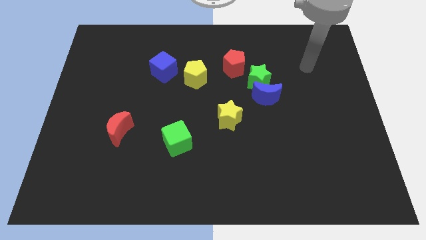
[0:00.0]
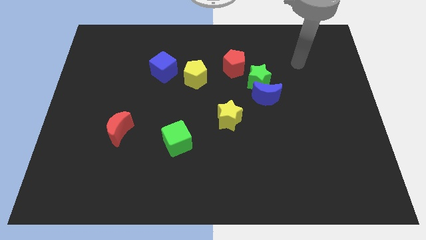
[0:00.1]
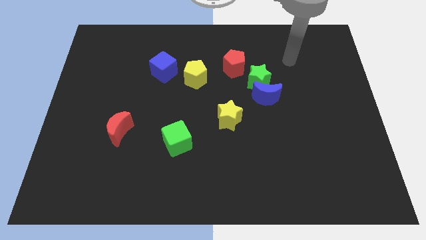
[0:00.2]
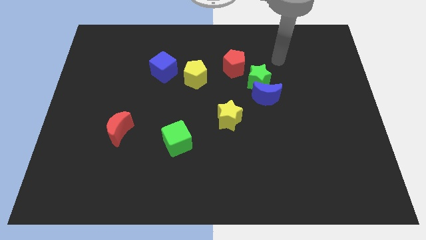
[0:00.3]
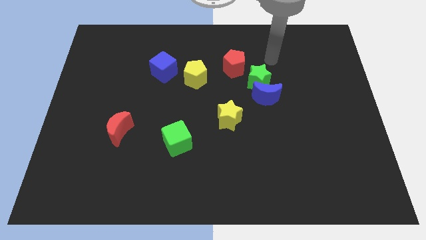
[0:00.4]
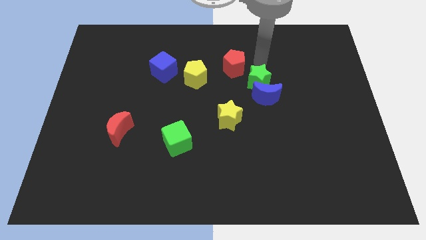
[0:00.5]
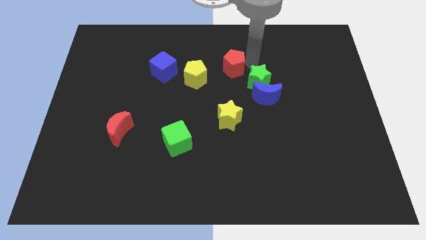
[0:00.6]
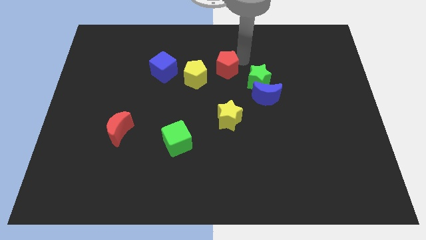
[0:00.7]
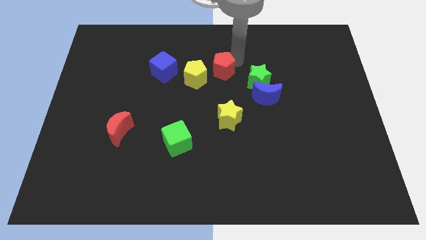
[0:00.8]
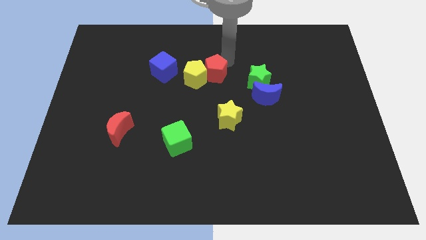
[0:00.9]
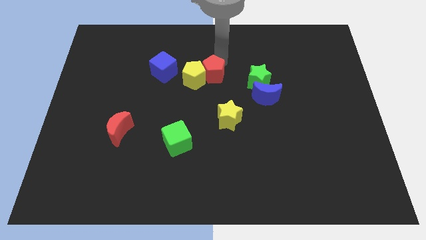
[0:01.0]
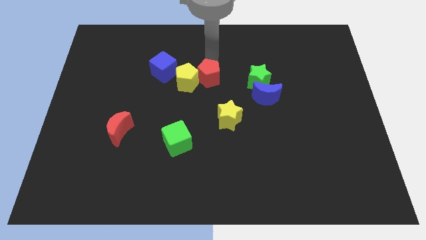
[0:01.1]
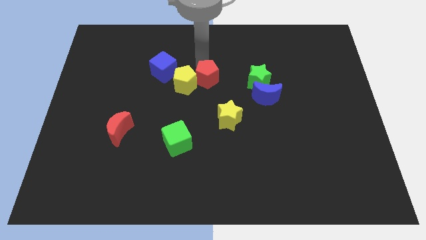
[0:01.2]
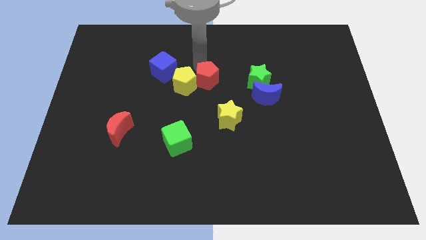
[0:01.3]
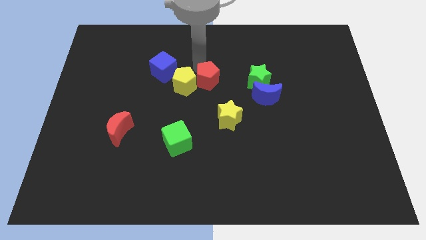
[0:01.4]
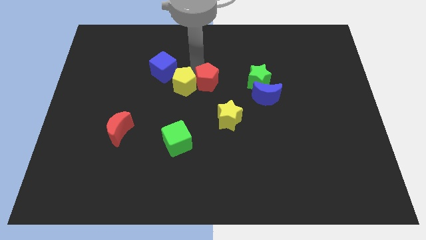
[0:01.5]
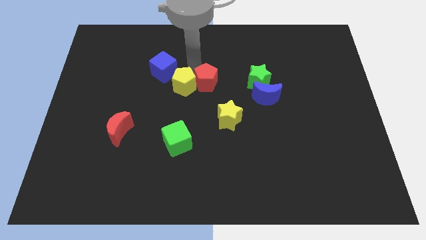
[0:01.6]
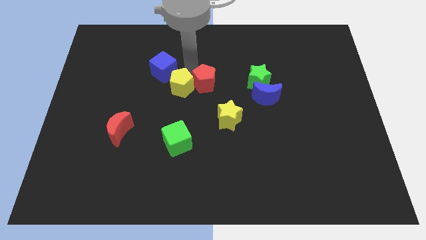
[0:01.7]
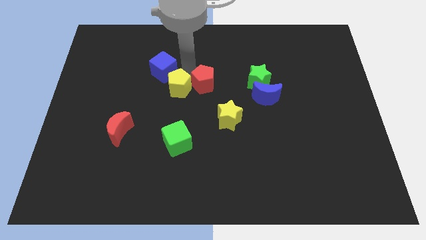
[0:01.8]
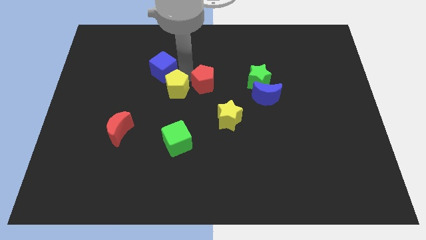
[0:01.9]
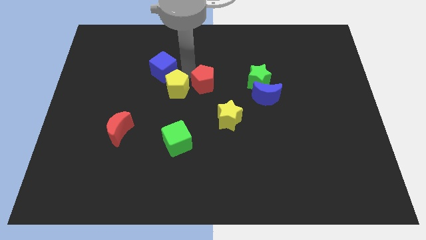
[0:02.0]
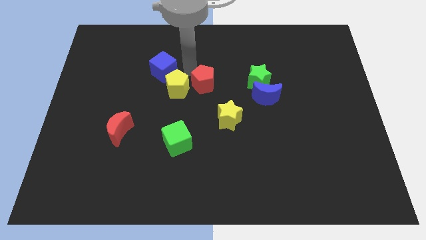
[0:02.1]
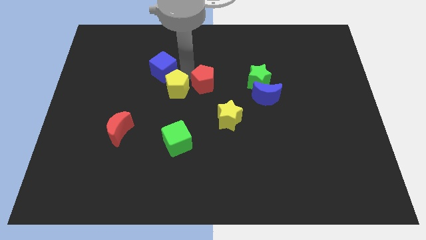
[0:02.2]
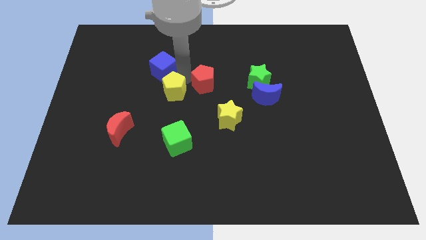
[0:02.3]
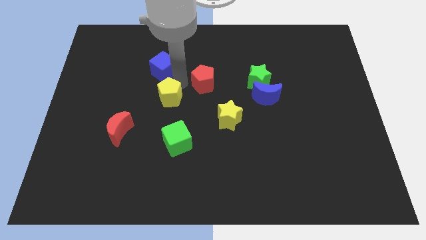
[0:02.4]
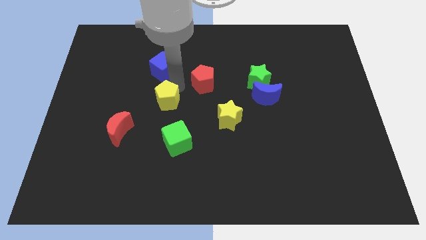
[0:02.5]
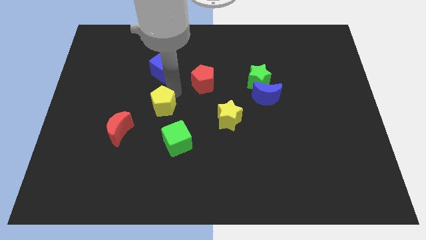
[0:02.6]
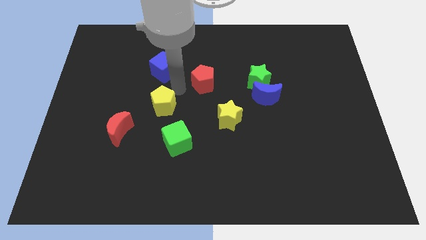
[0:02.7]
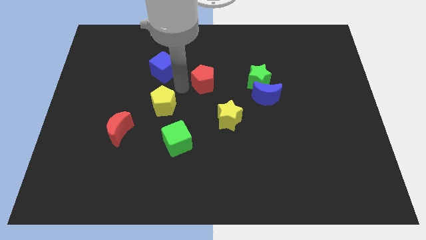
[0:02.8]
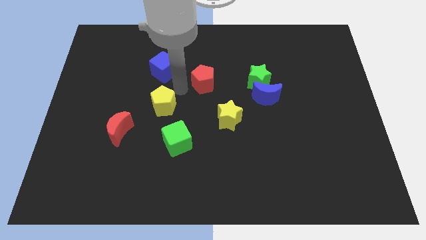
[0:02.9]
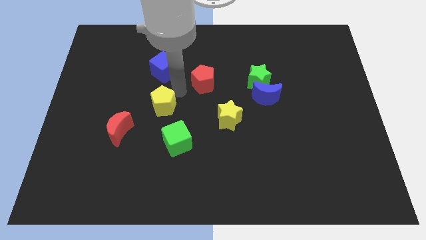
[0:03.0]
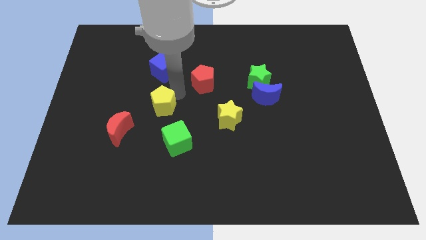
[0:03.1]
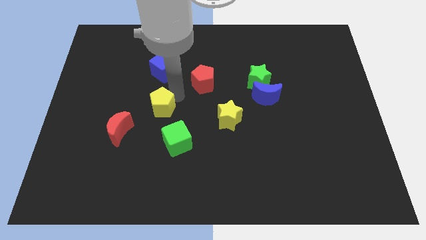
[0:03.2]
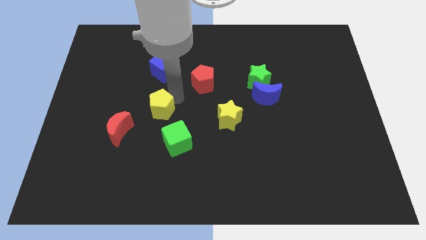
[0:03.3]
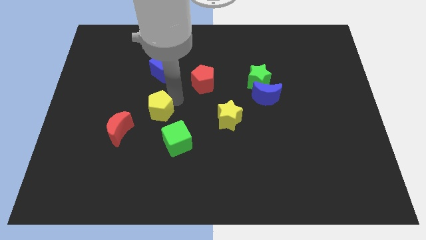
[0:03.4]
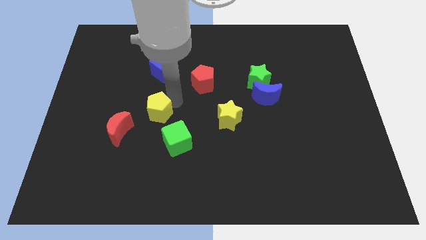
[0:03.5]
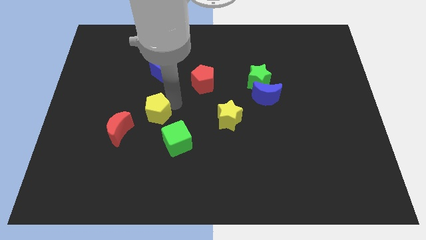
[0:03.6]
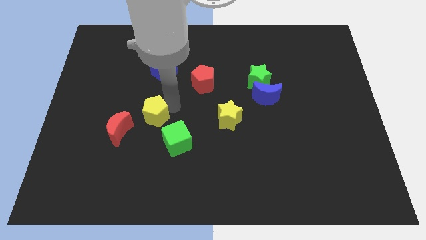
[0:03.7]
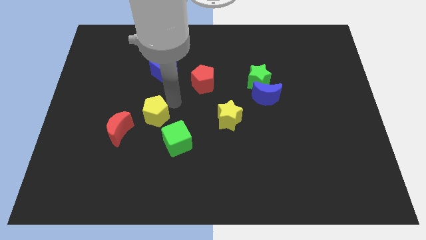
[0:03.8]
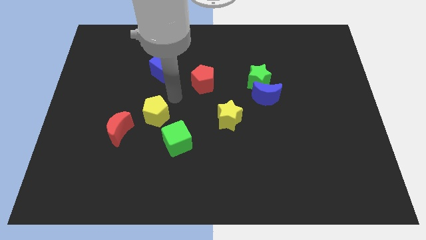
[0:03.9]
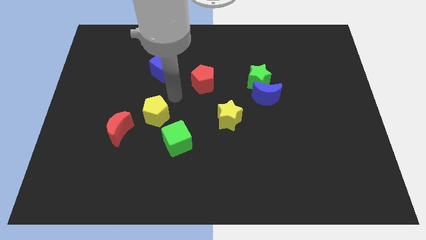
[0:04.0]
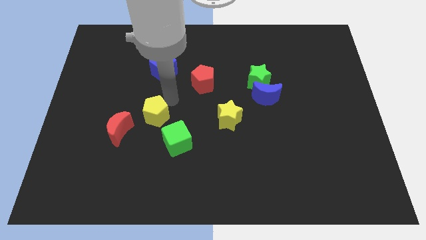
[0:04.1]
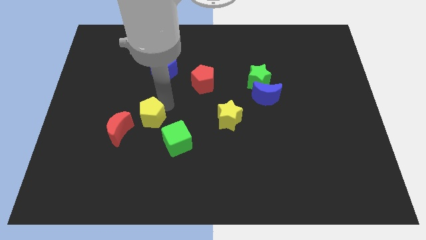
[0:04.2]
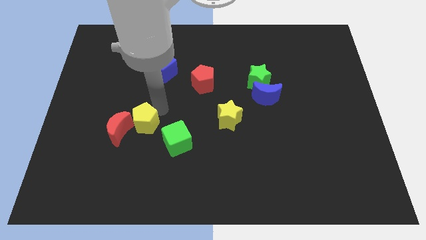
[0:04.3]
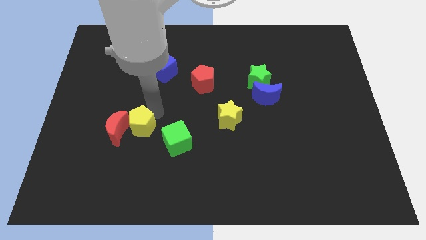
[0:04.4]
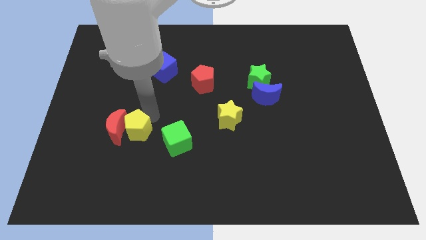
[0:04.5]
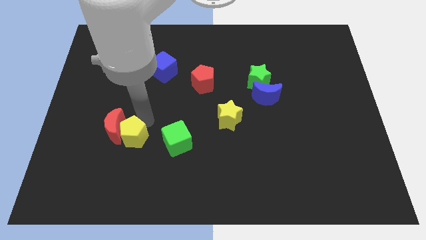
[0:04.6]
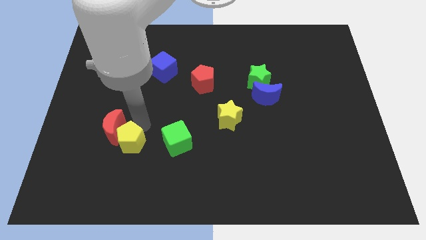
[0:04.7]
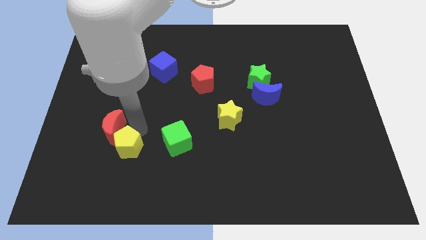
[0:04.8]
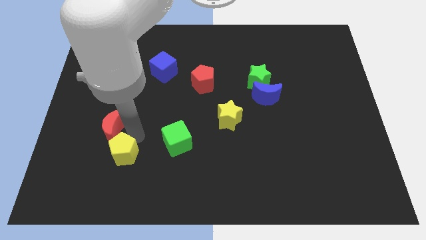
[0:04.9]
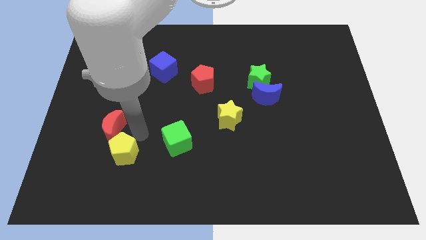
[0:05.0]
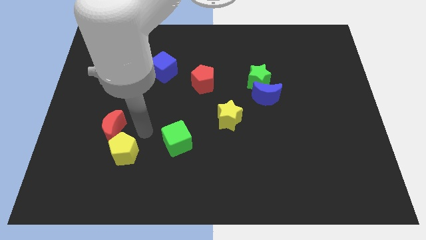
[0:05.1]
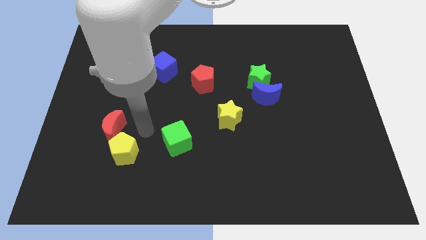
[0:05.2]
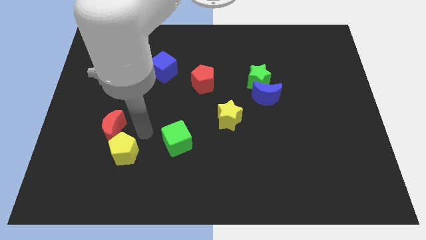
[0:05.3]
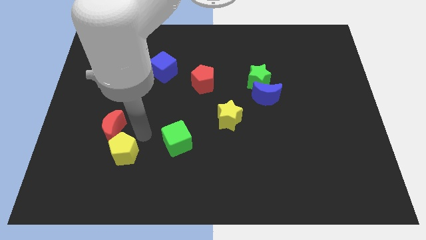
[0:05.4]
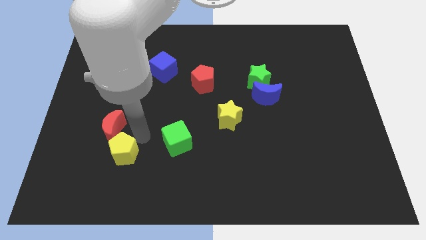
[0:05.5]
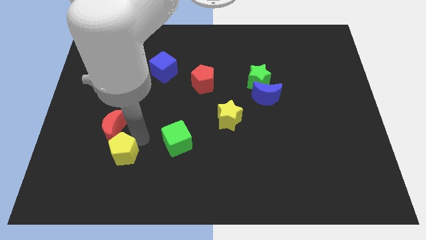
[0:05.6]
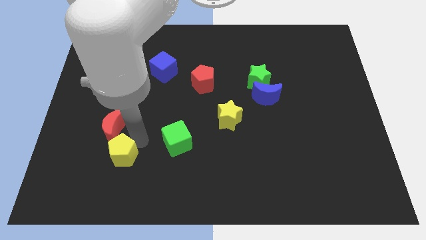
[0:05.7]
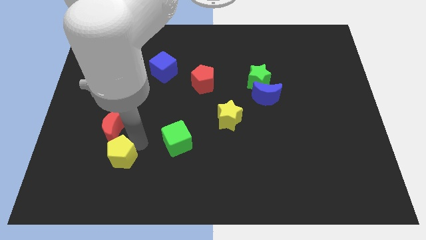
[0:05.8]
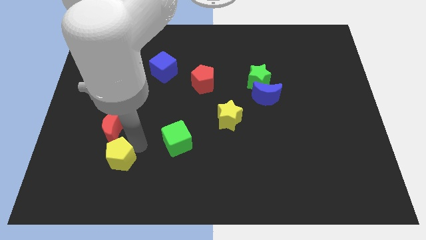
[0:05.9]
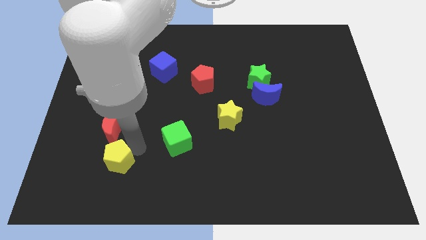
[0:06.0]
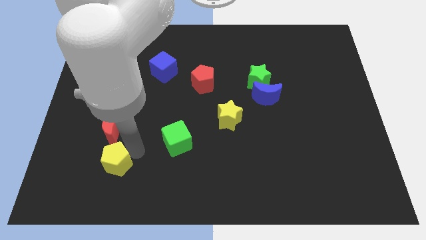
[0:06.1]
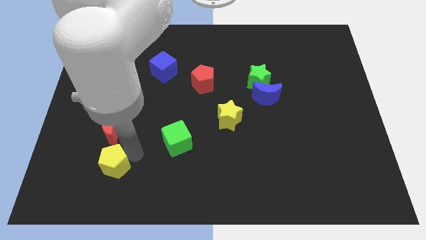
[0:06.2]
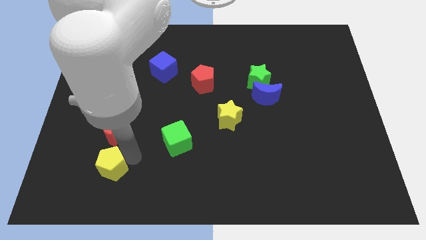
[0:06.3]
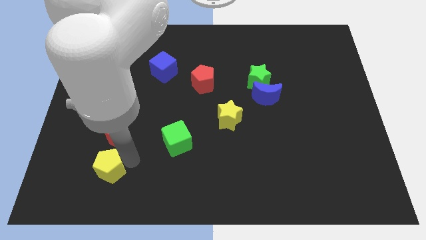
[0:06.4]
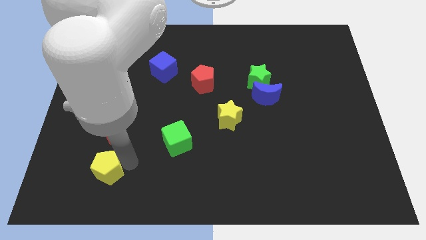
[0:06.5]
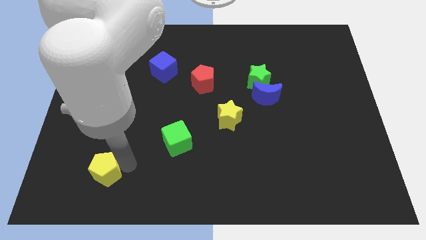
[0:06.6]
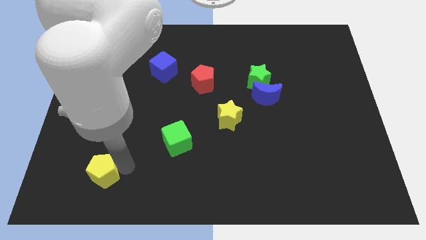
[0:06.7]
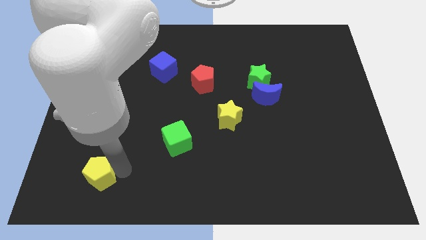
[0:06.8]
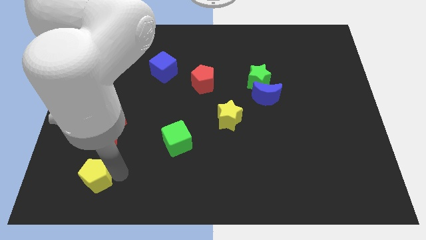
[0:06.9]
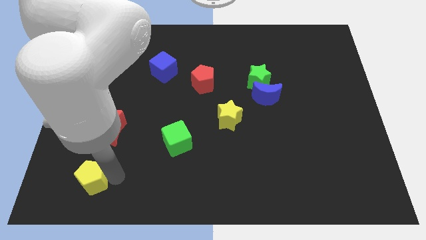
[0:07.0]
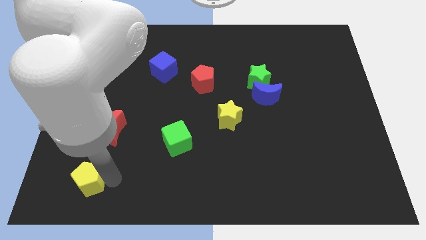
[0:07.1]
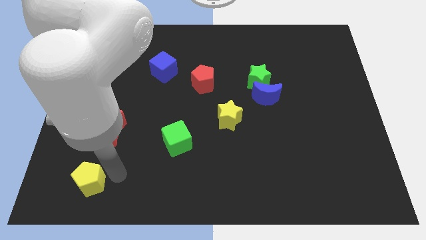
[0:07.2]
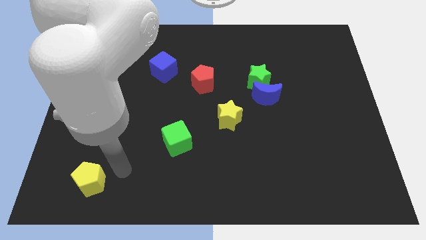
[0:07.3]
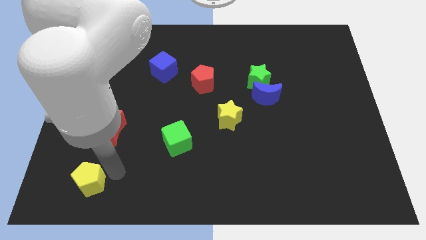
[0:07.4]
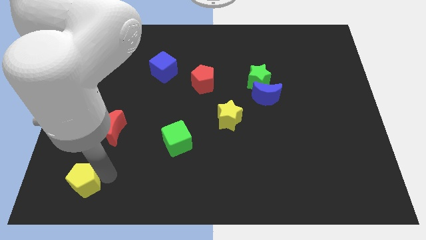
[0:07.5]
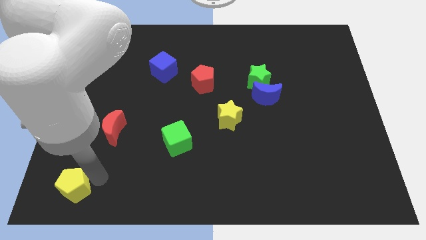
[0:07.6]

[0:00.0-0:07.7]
move the yellow pentagon to the bottom left
